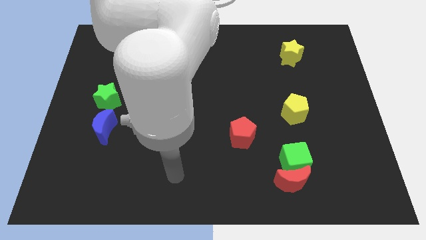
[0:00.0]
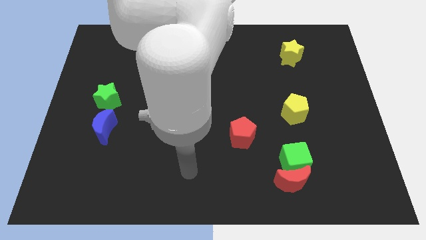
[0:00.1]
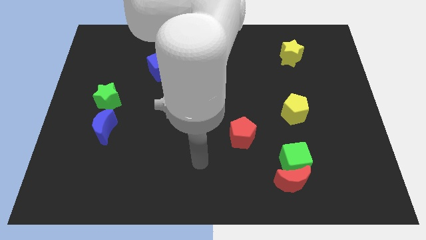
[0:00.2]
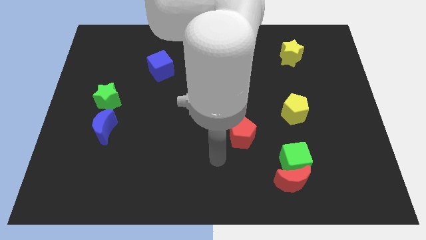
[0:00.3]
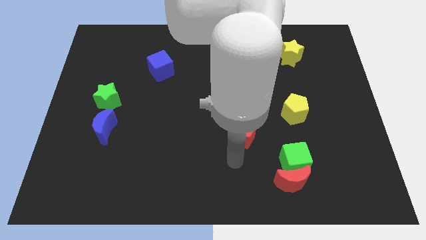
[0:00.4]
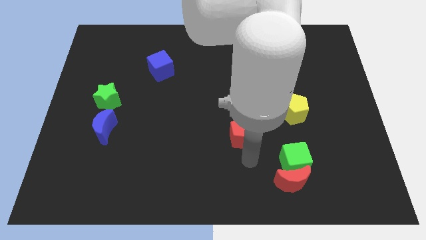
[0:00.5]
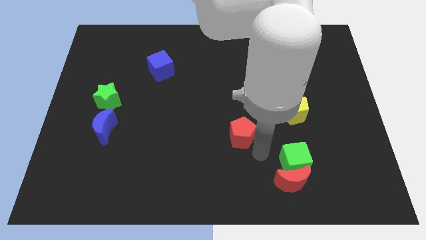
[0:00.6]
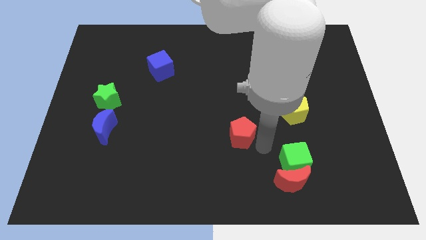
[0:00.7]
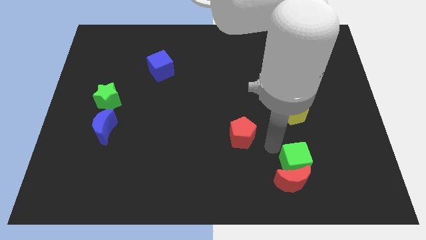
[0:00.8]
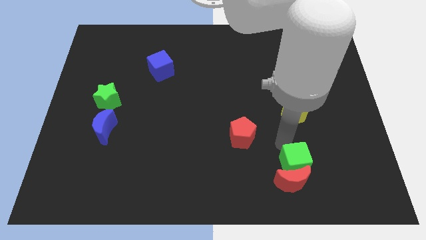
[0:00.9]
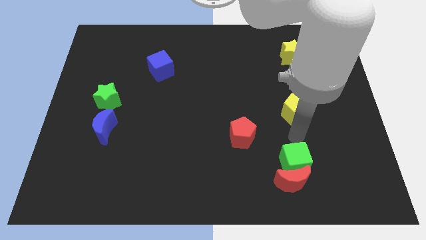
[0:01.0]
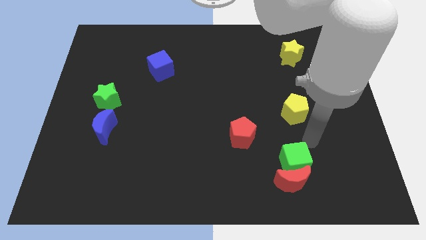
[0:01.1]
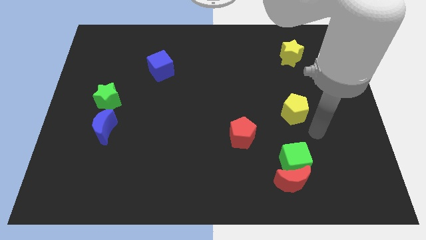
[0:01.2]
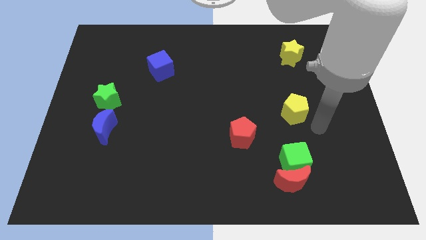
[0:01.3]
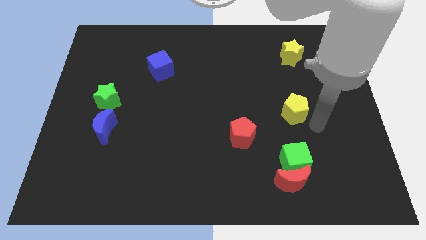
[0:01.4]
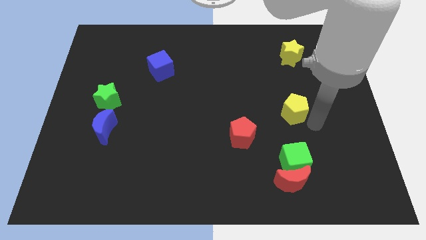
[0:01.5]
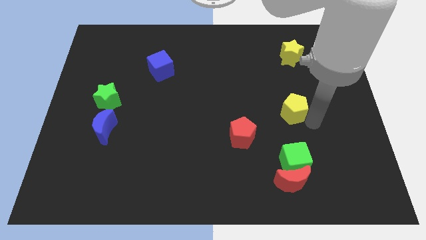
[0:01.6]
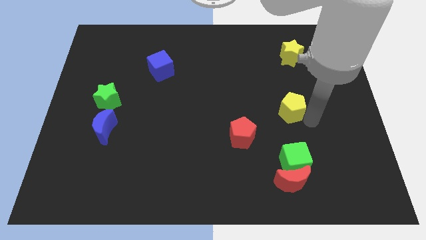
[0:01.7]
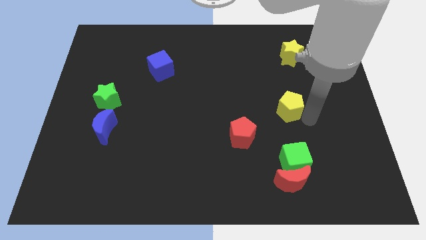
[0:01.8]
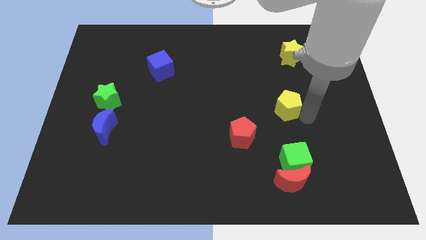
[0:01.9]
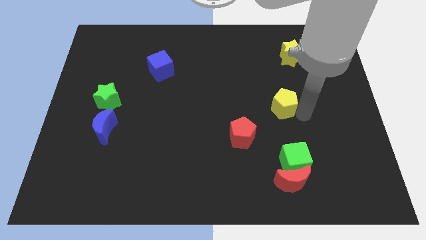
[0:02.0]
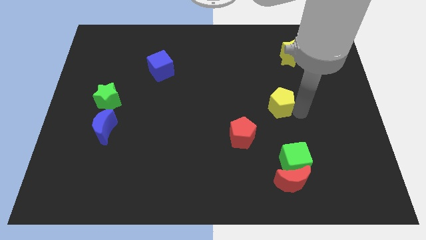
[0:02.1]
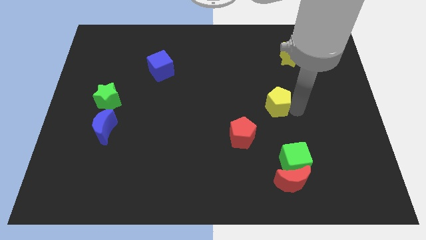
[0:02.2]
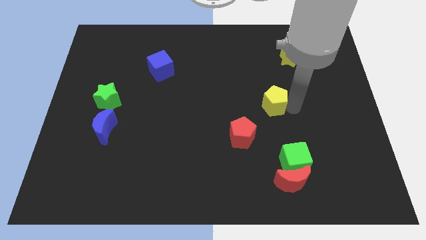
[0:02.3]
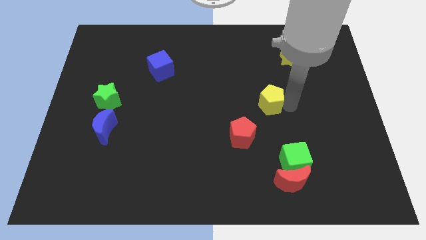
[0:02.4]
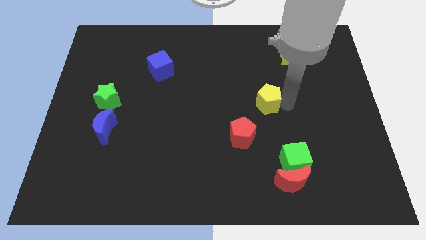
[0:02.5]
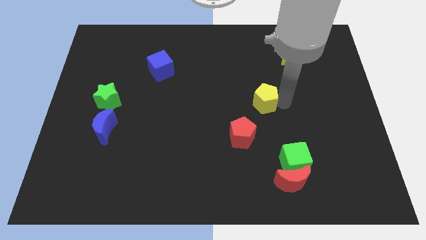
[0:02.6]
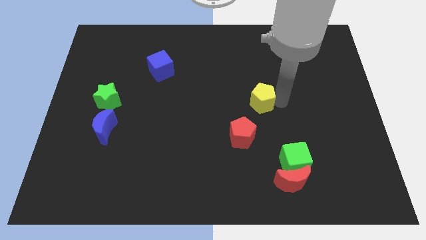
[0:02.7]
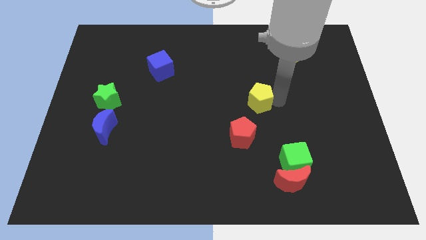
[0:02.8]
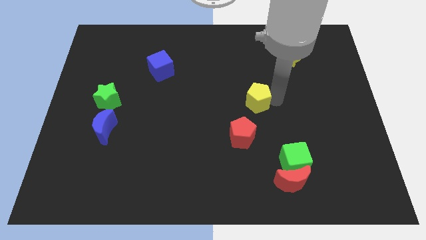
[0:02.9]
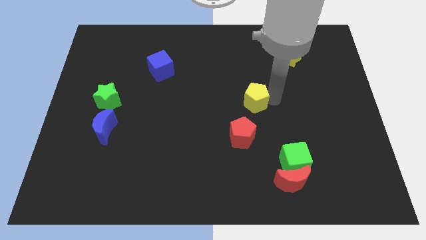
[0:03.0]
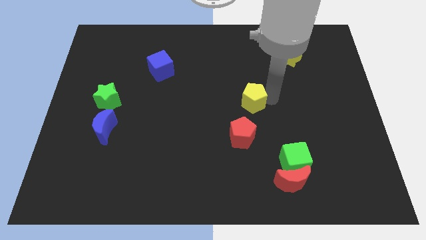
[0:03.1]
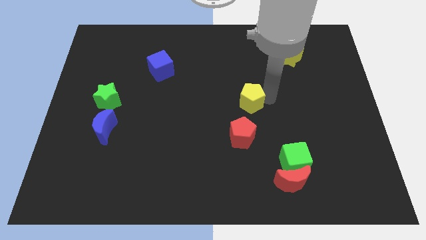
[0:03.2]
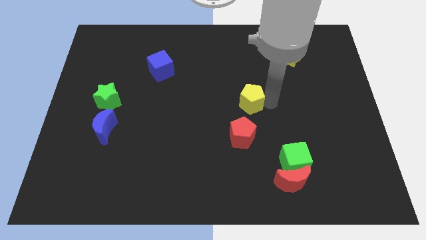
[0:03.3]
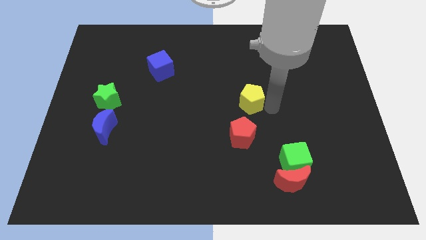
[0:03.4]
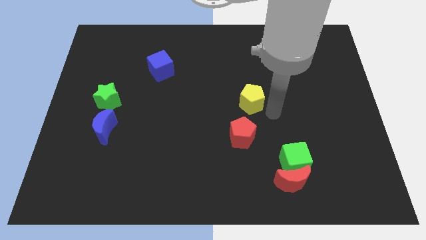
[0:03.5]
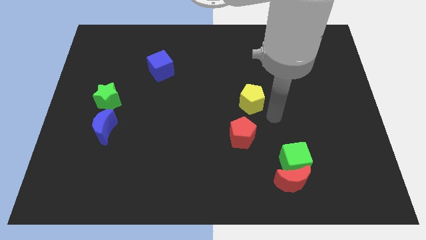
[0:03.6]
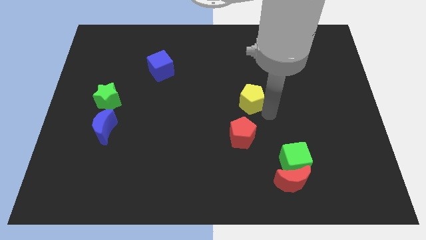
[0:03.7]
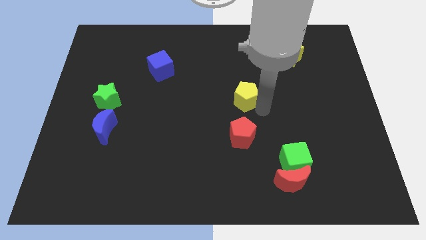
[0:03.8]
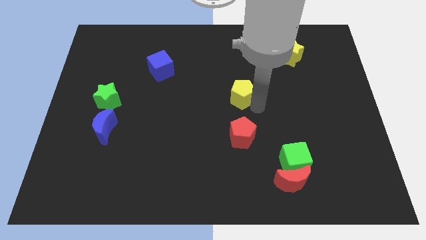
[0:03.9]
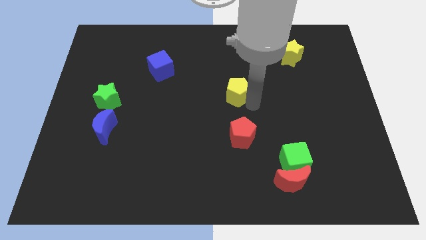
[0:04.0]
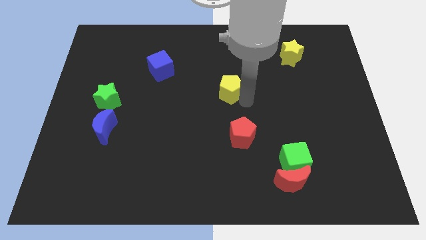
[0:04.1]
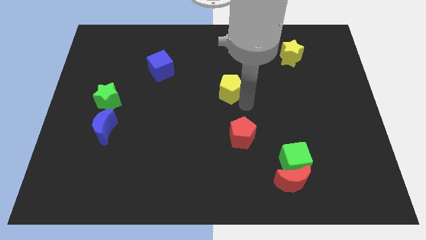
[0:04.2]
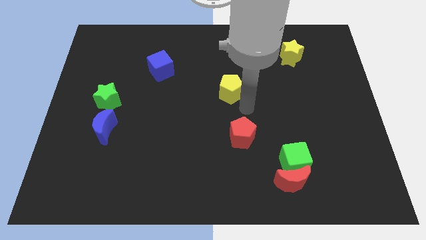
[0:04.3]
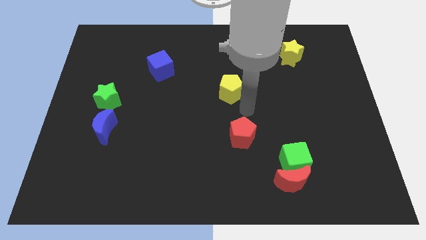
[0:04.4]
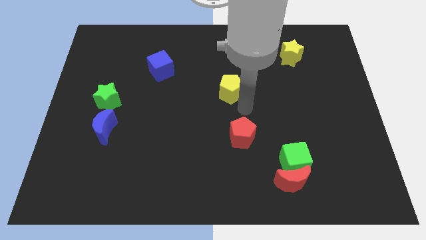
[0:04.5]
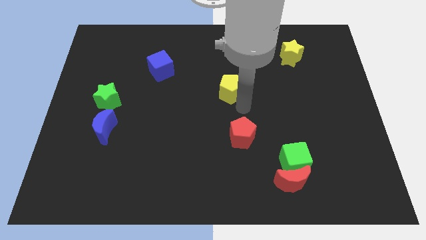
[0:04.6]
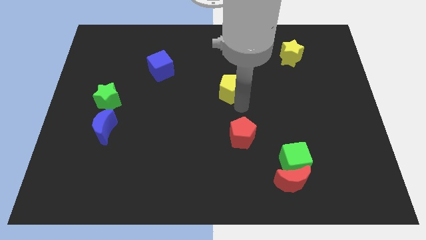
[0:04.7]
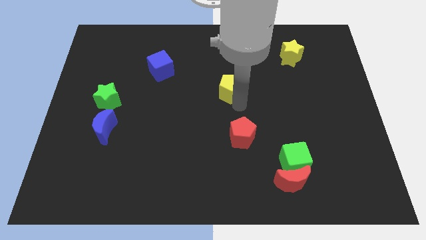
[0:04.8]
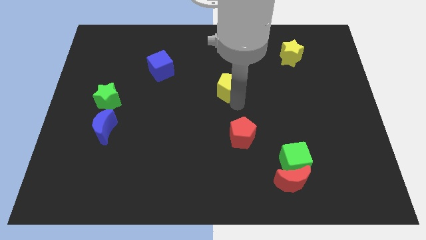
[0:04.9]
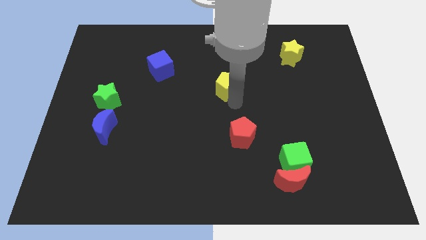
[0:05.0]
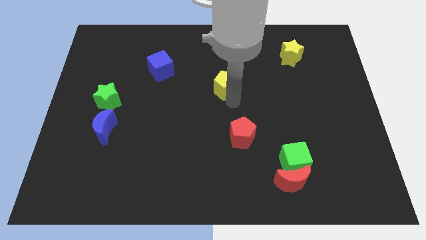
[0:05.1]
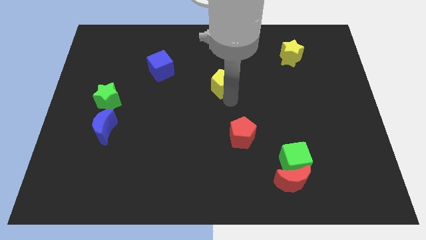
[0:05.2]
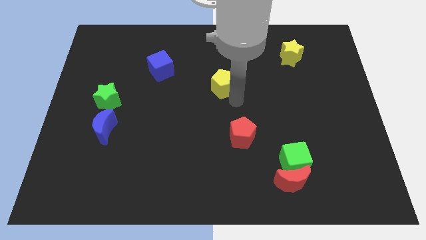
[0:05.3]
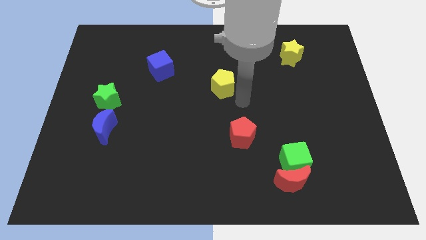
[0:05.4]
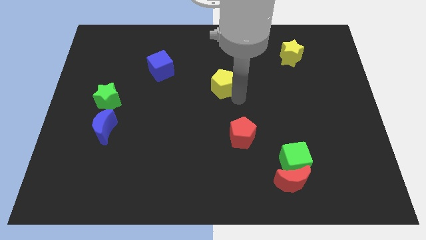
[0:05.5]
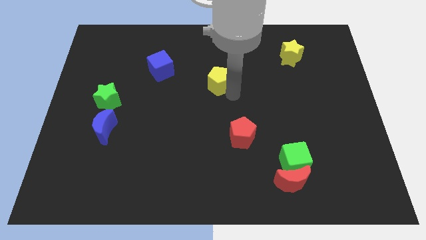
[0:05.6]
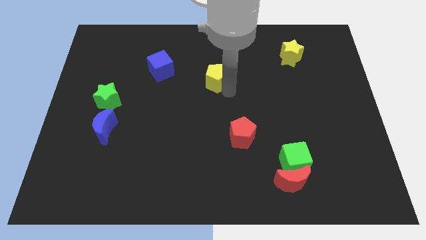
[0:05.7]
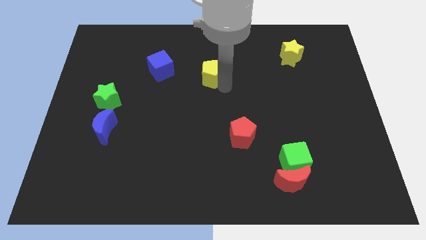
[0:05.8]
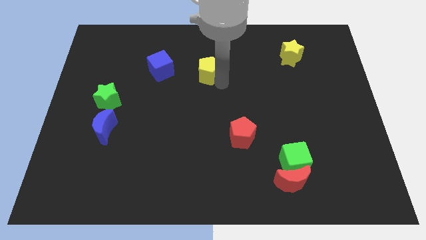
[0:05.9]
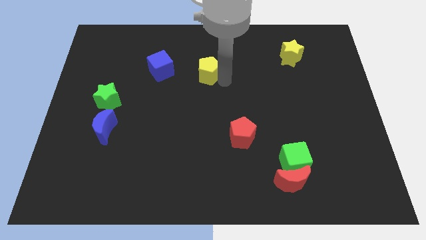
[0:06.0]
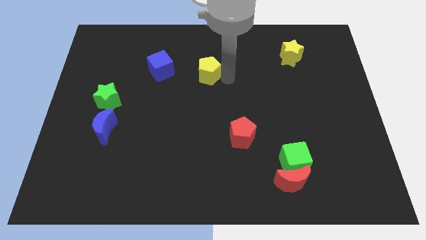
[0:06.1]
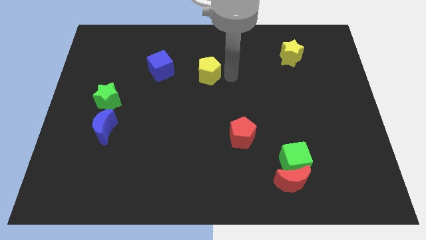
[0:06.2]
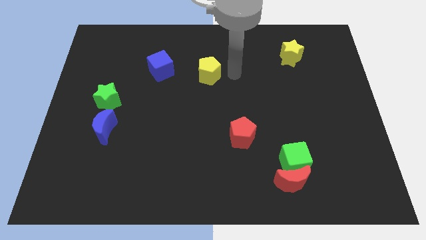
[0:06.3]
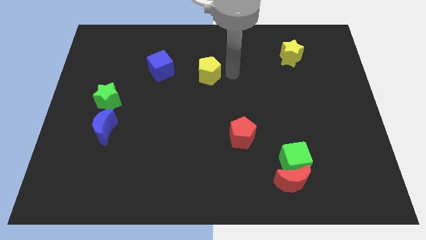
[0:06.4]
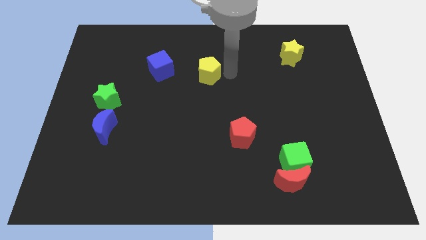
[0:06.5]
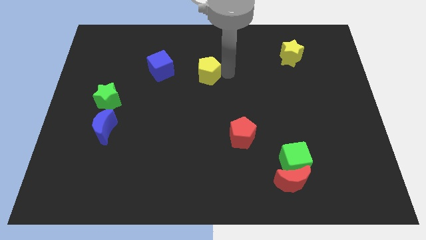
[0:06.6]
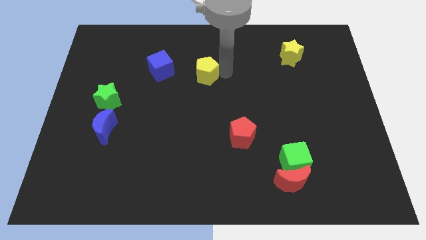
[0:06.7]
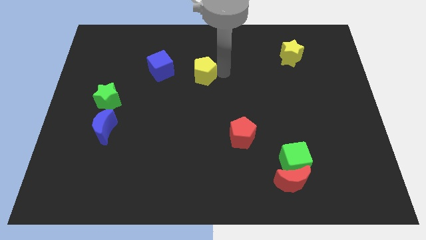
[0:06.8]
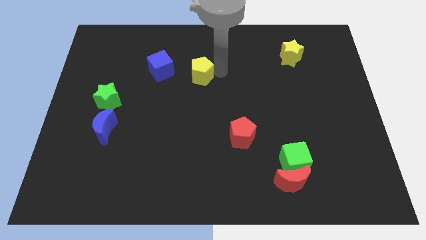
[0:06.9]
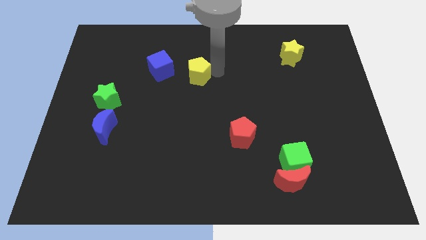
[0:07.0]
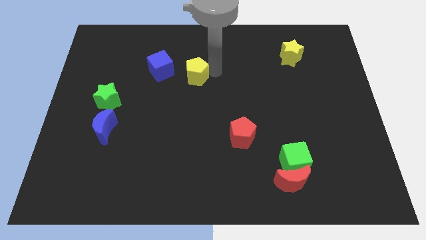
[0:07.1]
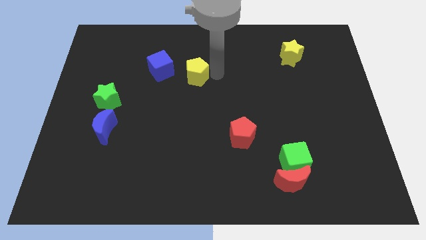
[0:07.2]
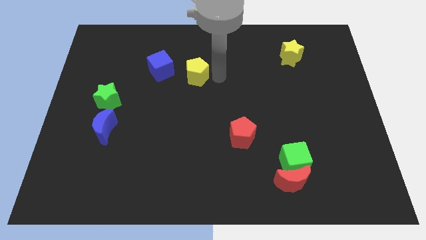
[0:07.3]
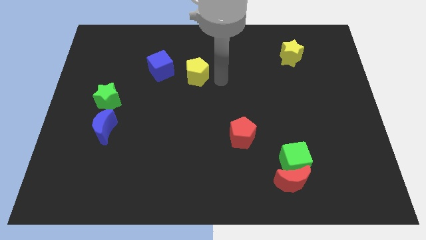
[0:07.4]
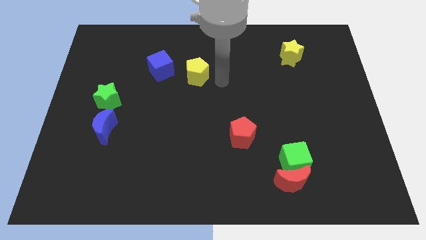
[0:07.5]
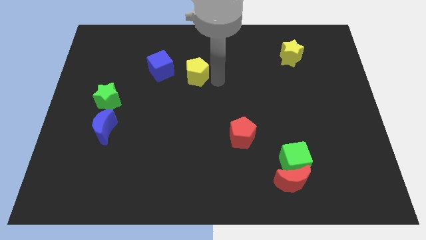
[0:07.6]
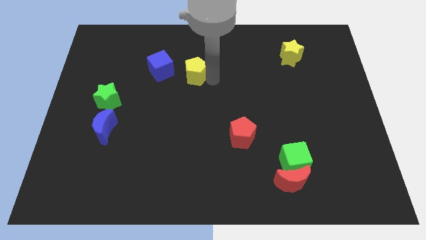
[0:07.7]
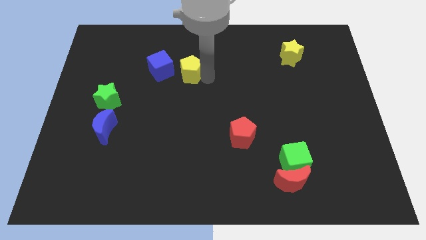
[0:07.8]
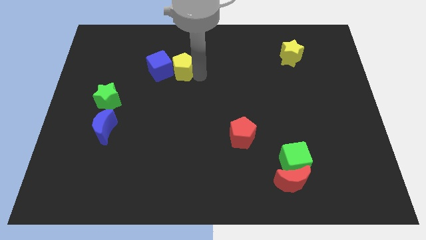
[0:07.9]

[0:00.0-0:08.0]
push the yellow pentagon towards the blue cube
